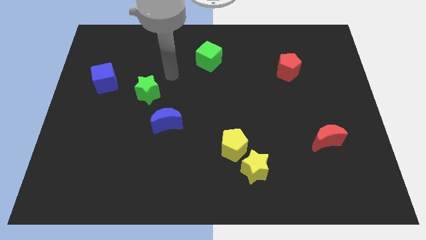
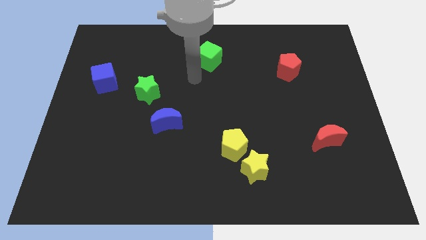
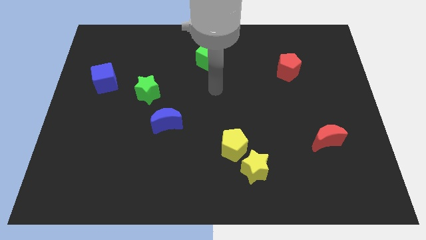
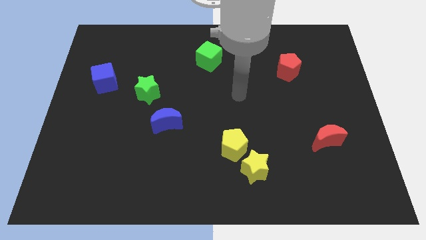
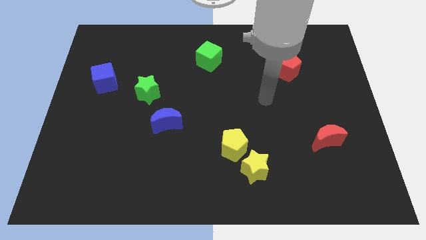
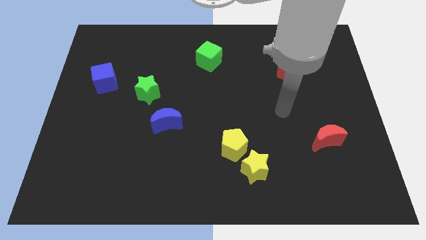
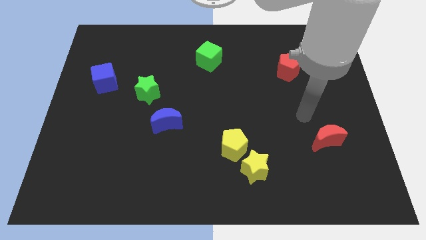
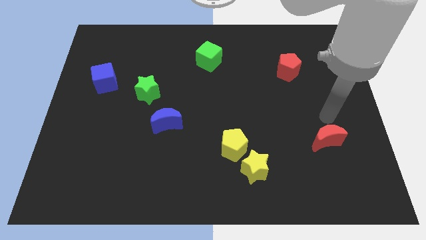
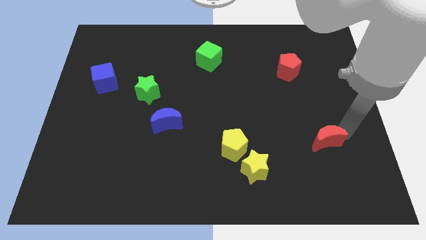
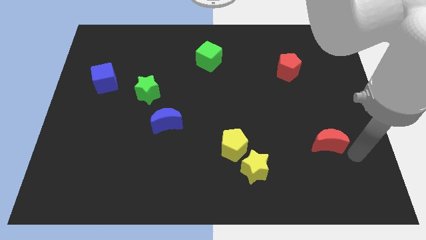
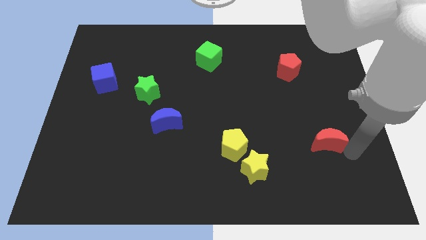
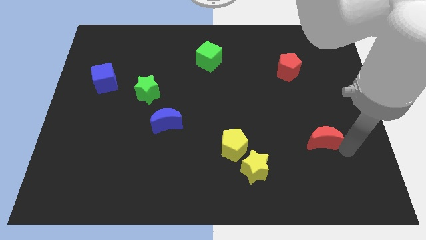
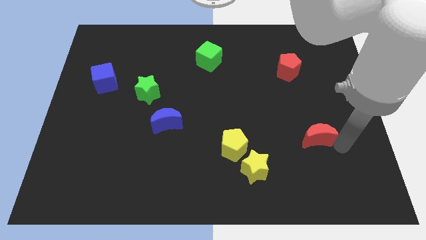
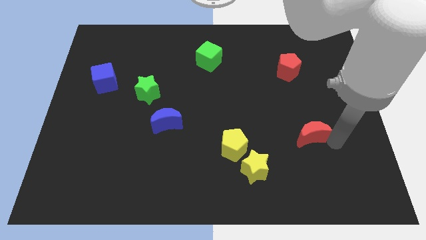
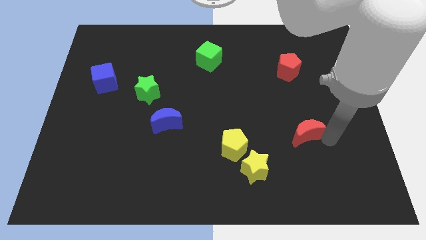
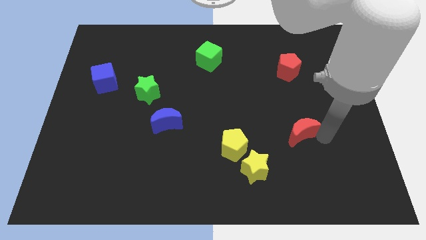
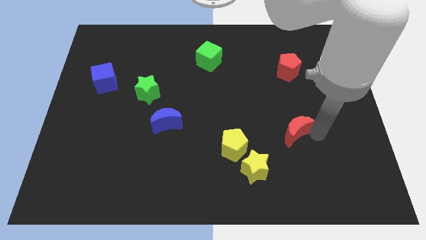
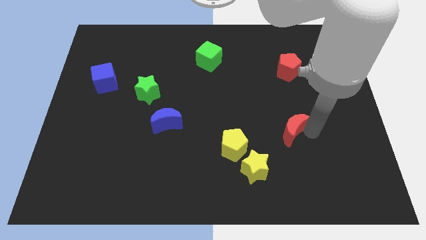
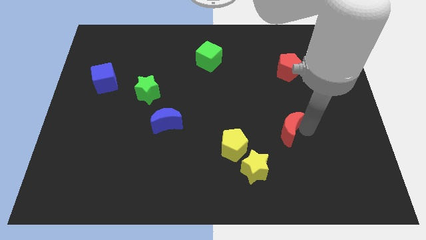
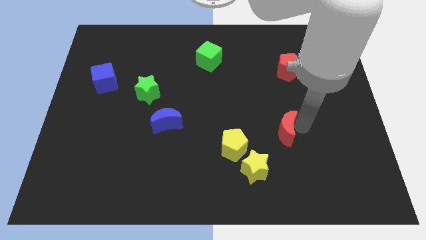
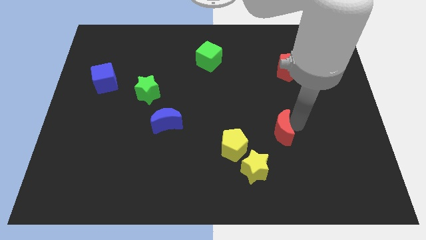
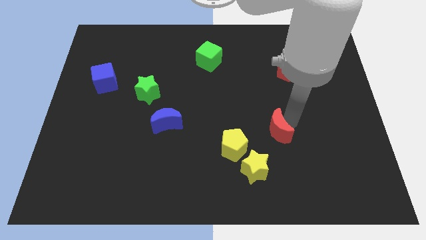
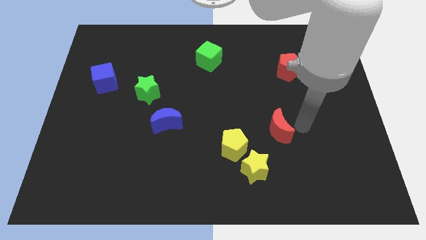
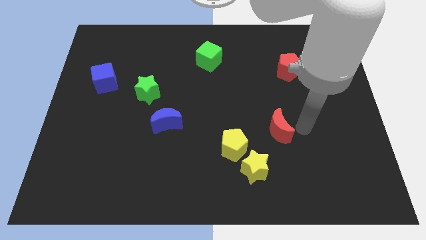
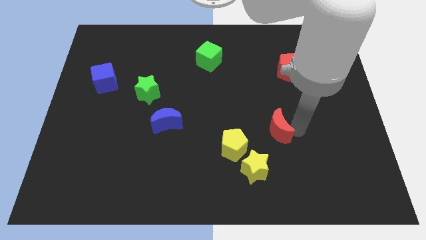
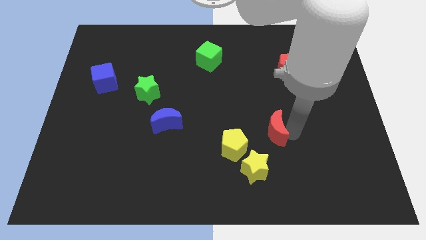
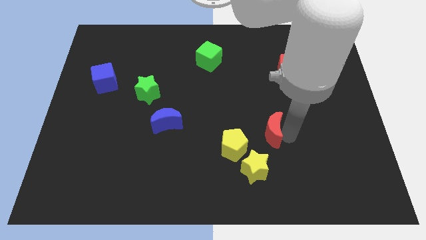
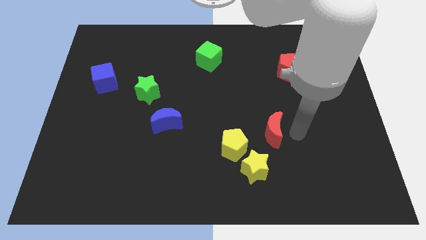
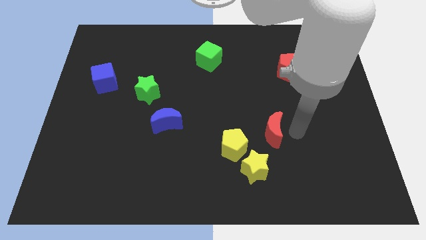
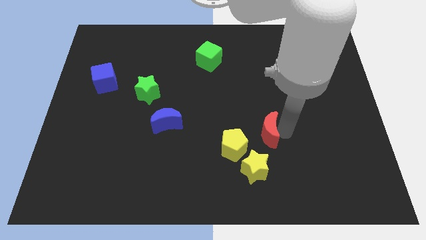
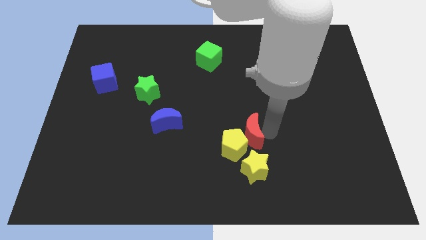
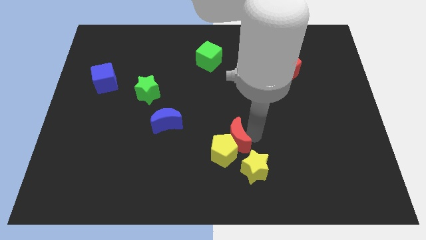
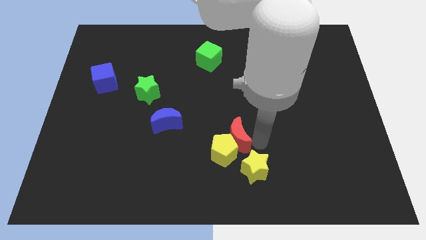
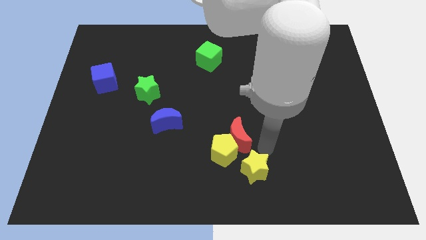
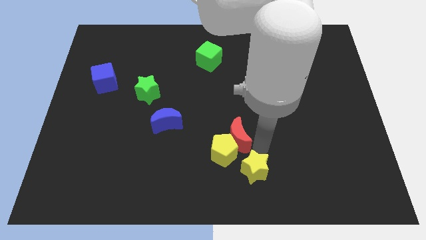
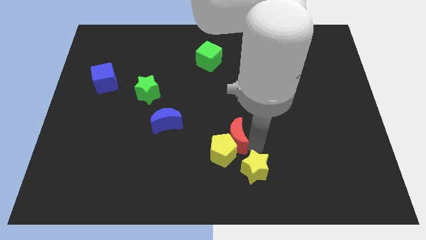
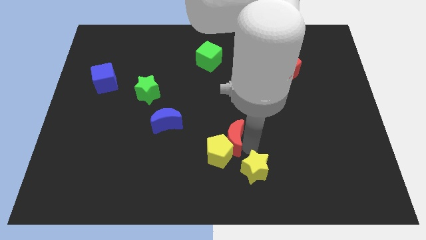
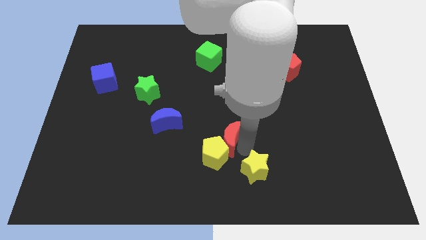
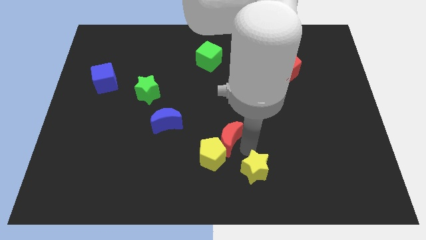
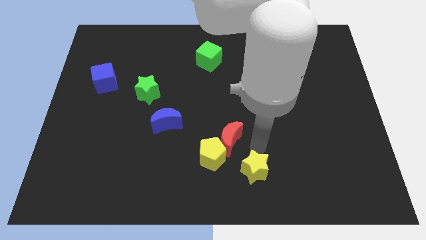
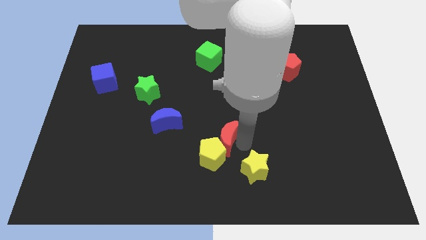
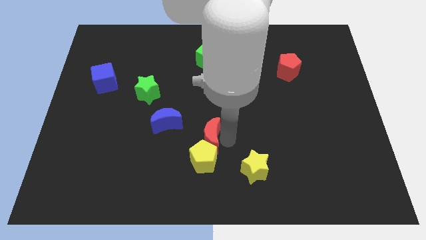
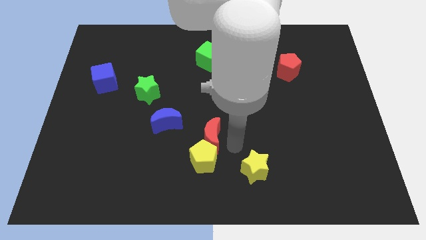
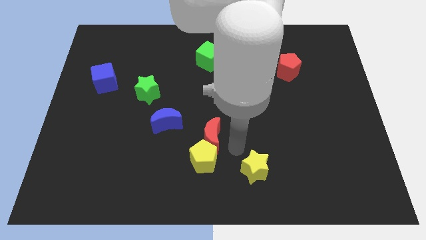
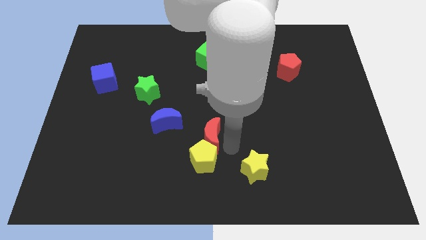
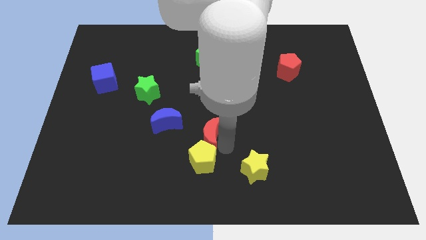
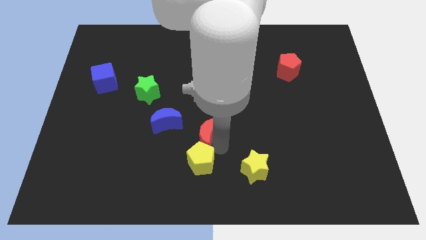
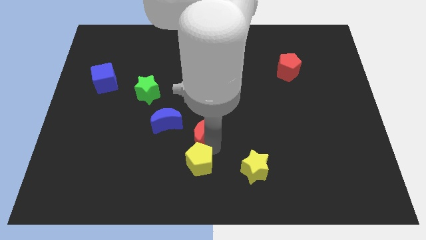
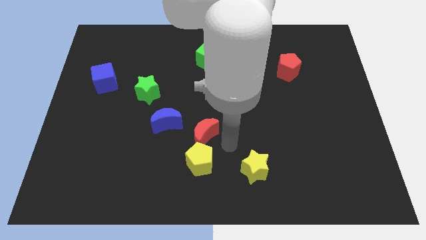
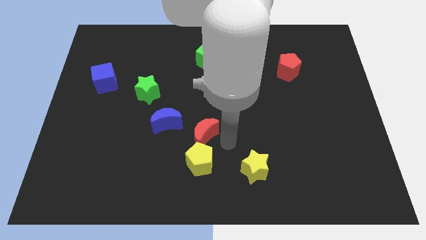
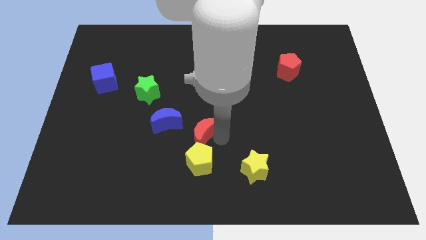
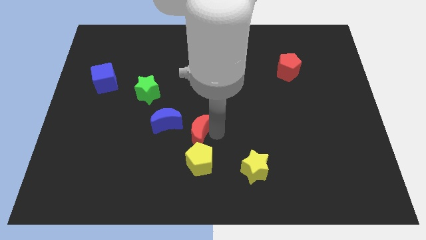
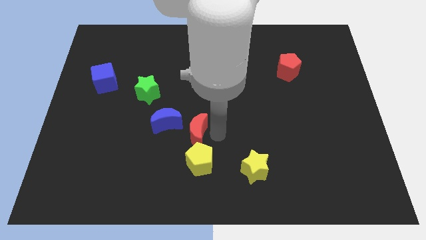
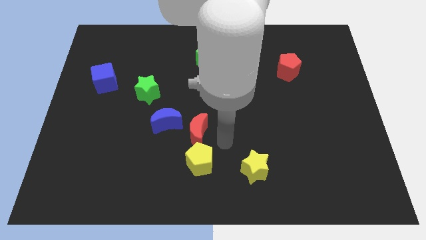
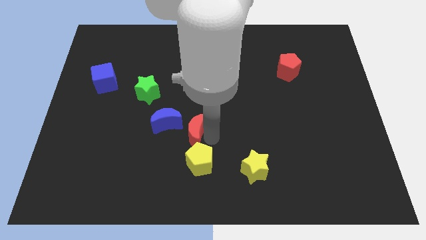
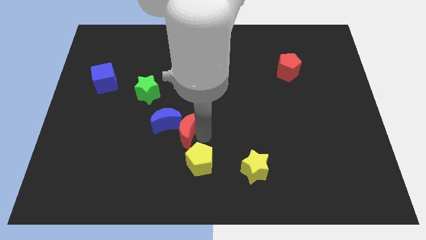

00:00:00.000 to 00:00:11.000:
slide the red moon towards the blue moon

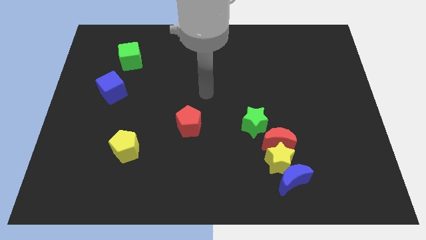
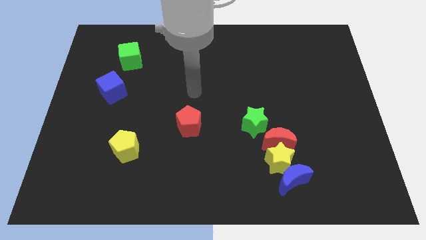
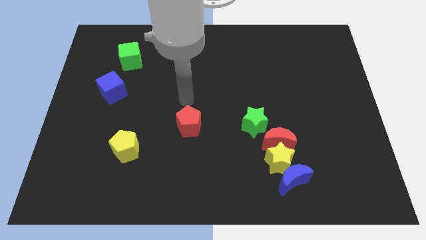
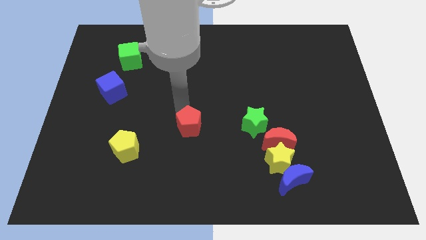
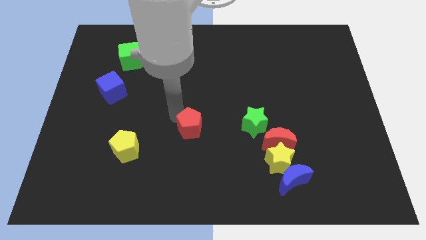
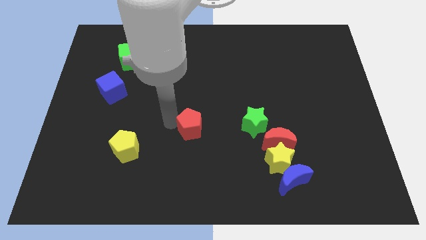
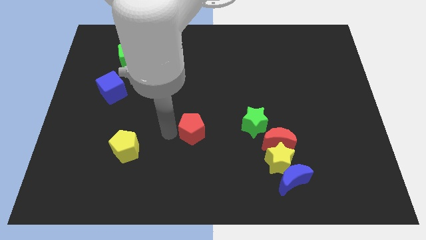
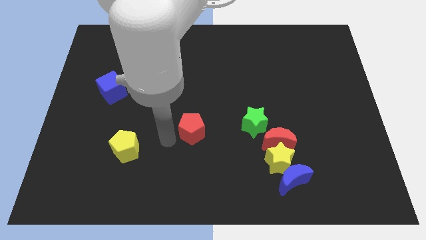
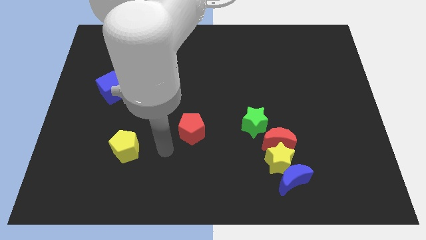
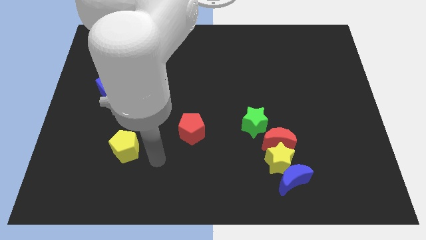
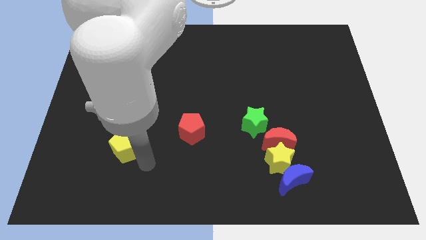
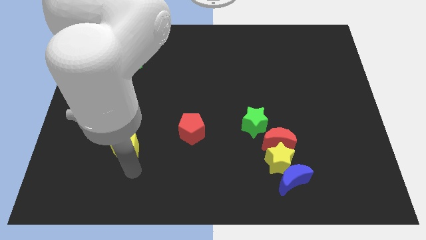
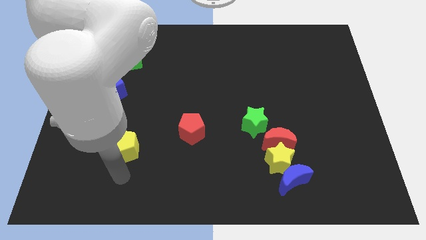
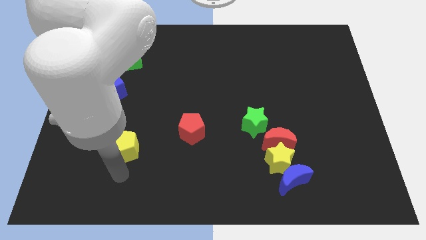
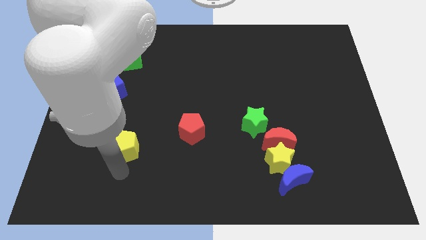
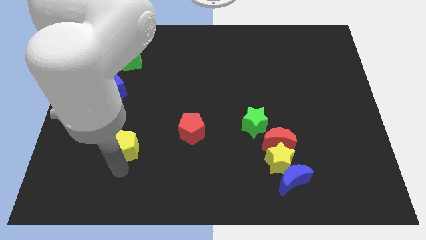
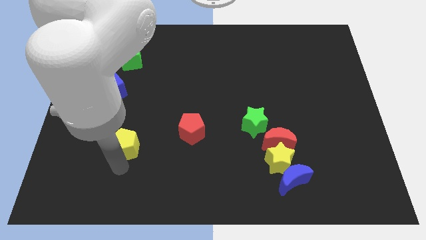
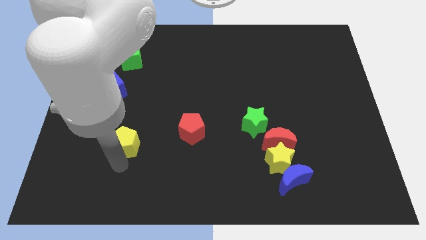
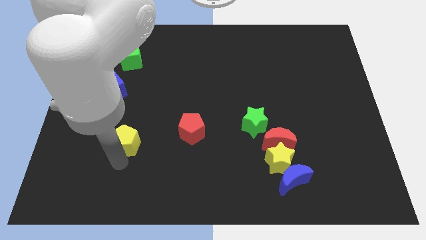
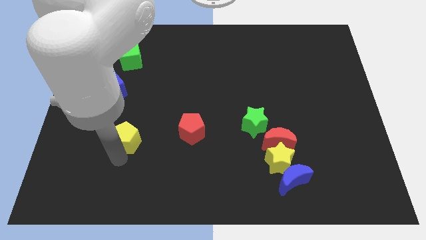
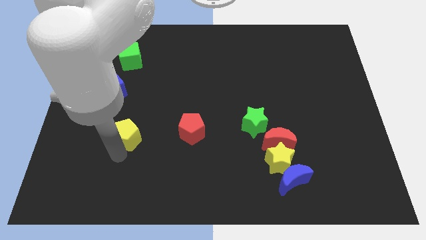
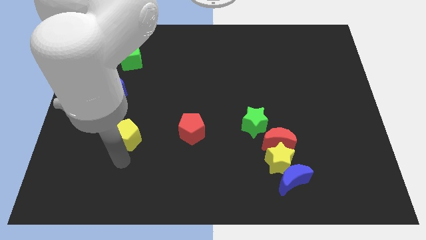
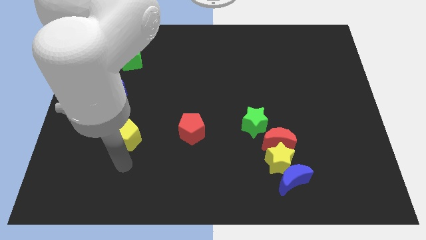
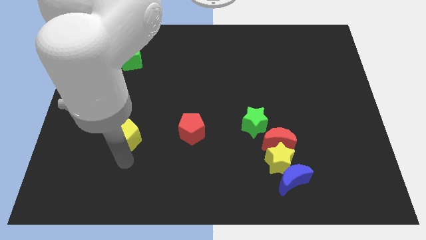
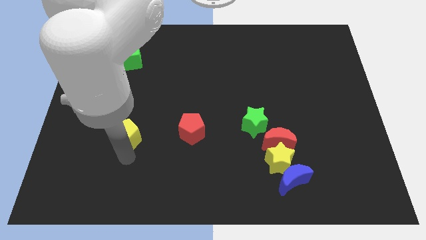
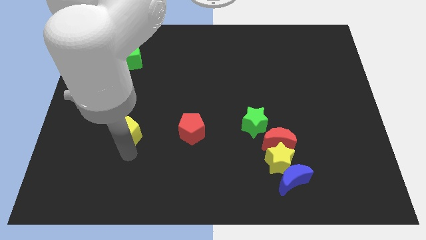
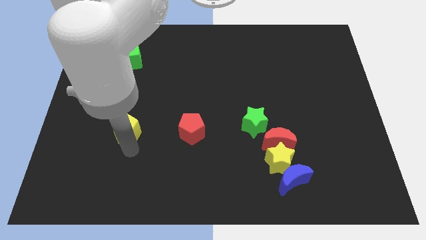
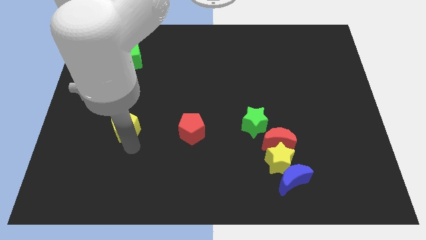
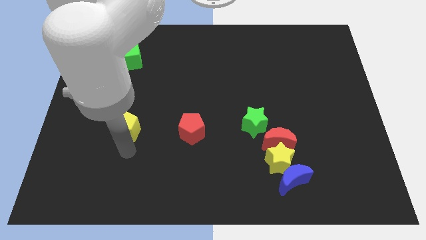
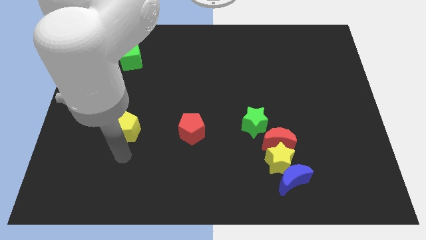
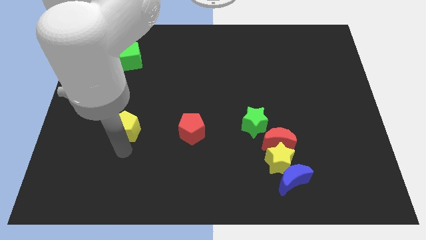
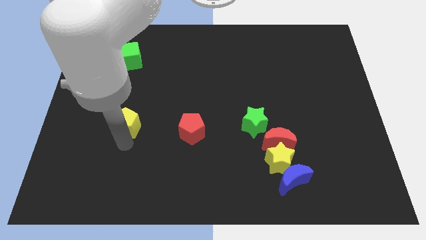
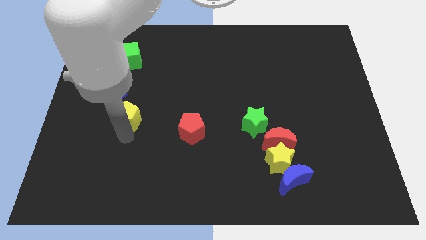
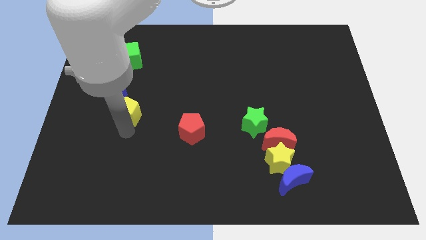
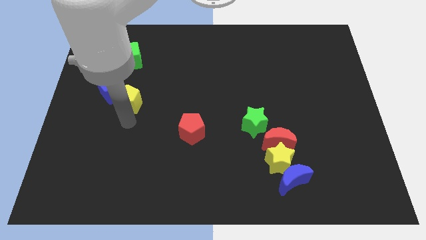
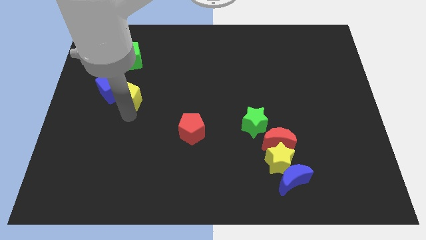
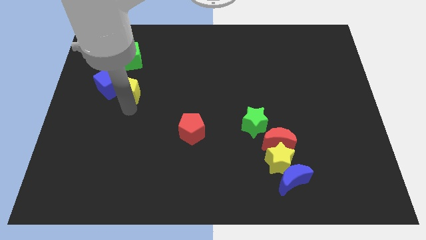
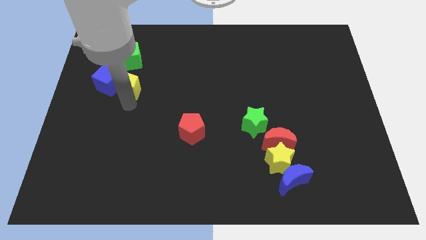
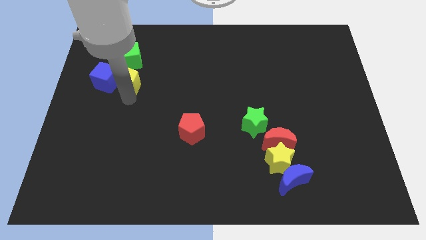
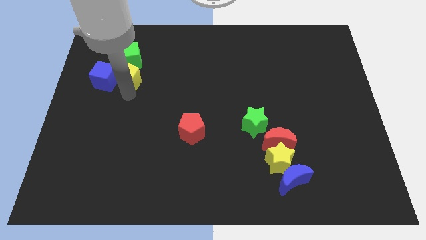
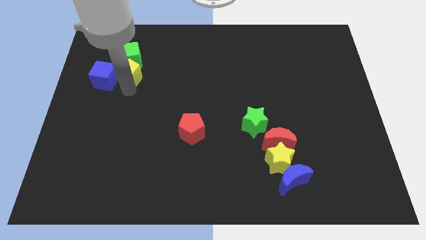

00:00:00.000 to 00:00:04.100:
move the yellow pentagon next to the green cube
